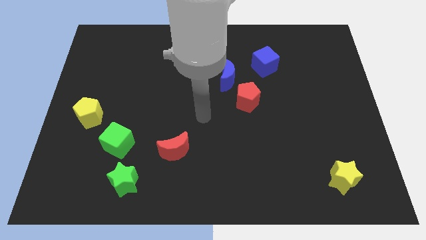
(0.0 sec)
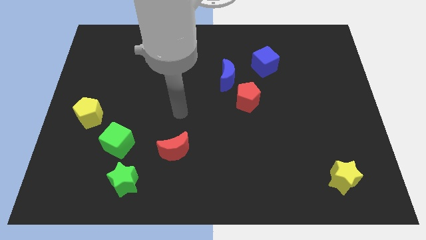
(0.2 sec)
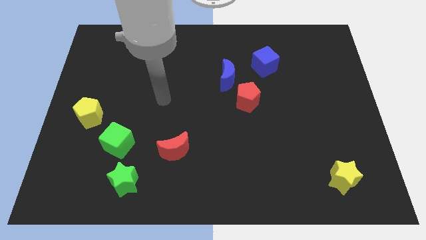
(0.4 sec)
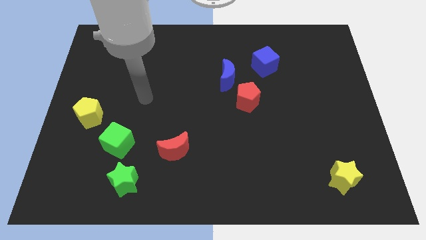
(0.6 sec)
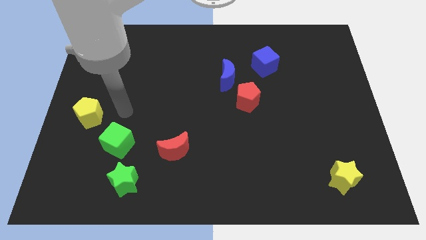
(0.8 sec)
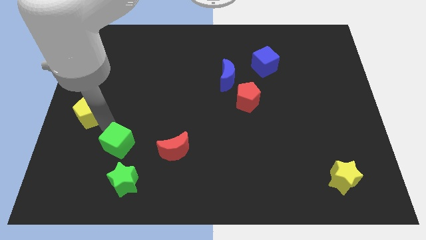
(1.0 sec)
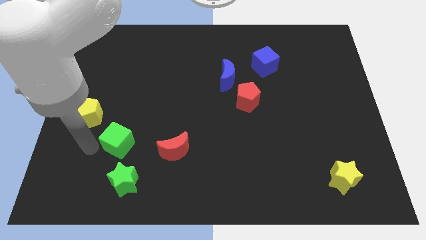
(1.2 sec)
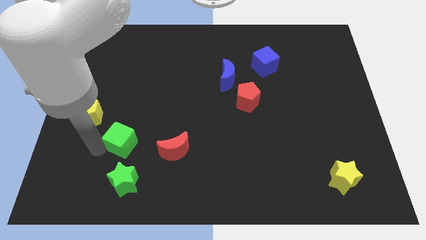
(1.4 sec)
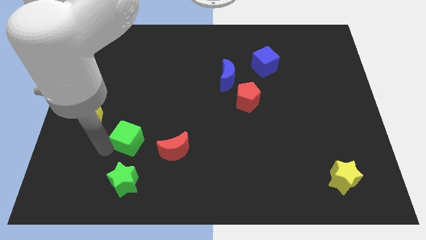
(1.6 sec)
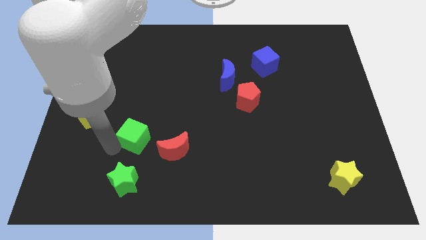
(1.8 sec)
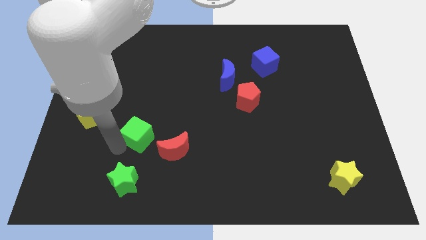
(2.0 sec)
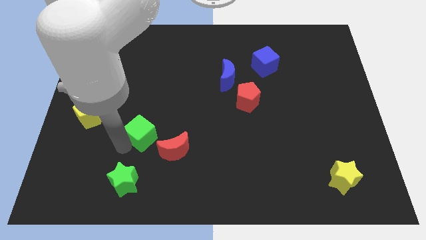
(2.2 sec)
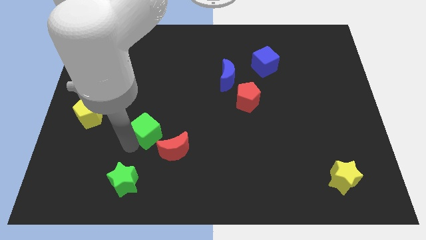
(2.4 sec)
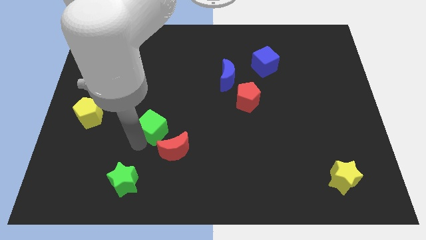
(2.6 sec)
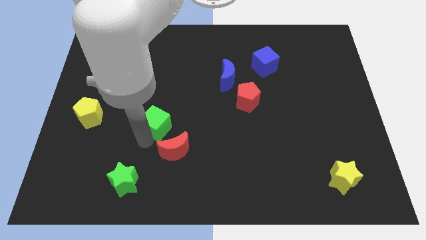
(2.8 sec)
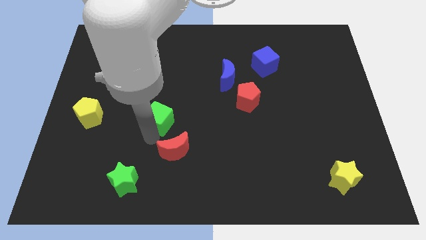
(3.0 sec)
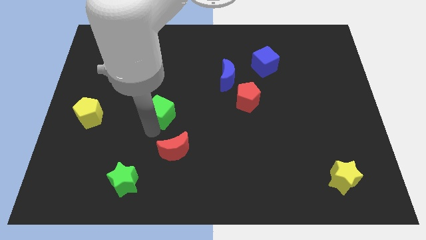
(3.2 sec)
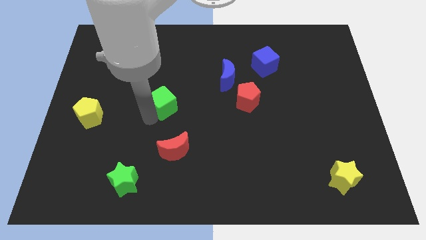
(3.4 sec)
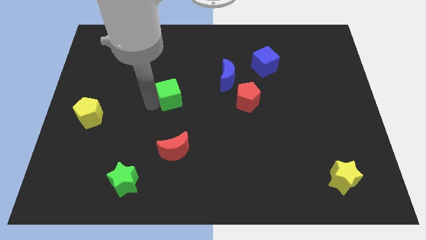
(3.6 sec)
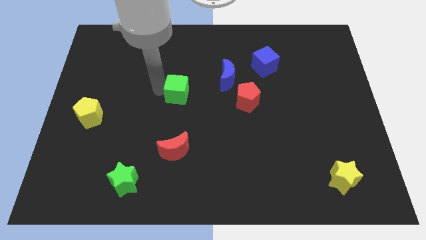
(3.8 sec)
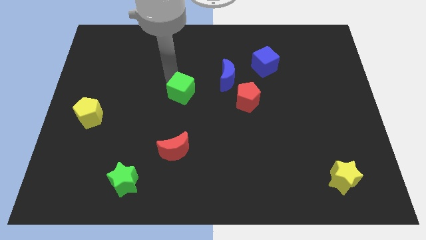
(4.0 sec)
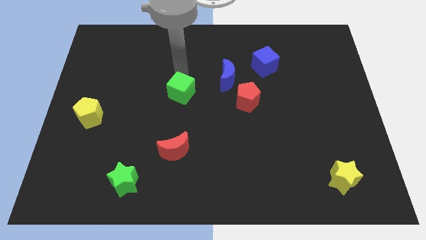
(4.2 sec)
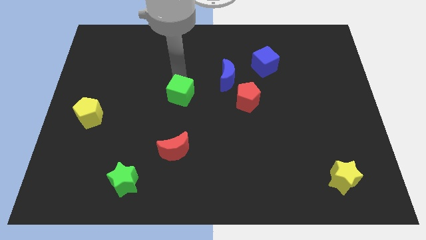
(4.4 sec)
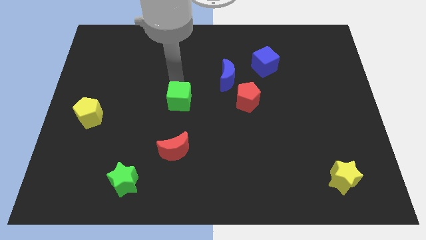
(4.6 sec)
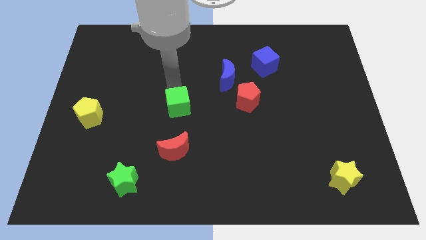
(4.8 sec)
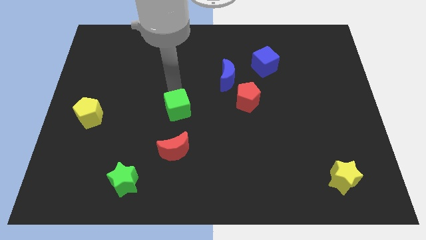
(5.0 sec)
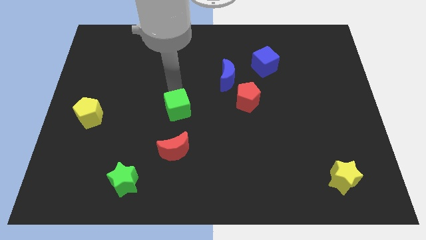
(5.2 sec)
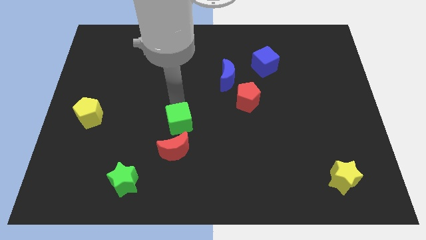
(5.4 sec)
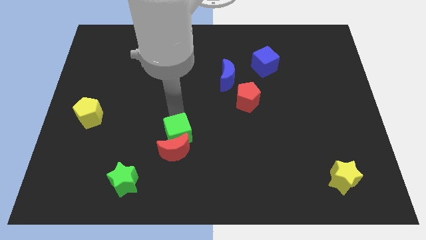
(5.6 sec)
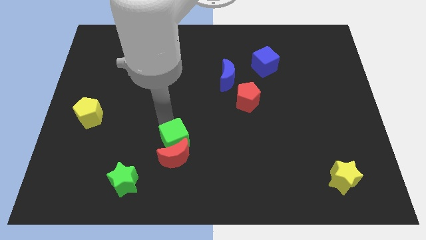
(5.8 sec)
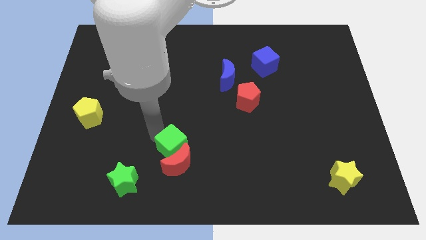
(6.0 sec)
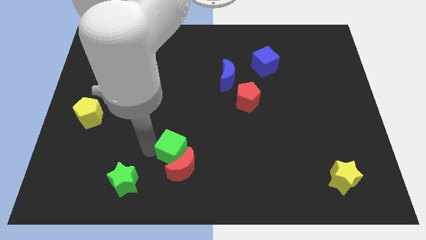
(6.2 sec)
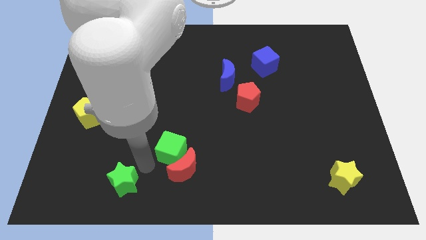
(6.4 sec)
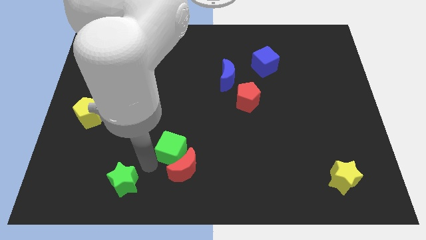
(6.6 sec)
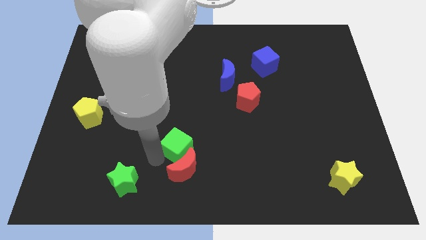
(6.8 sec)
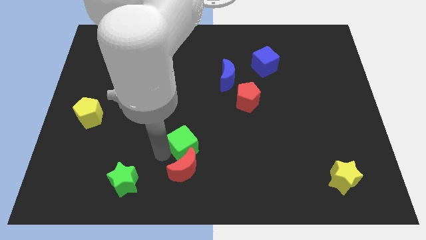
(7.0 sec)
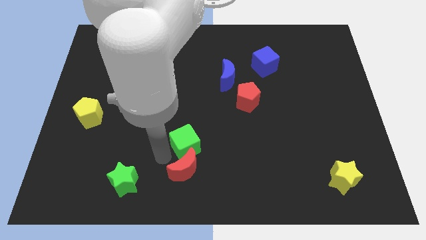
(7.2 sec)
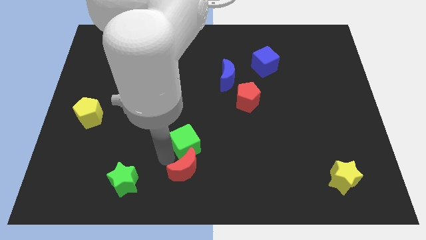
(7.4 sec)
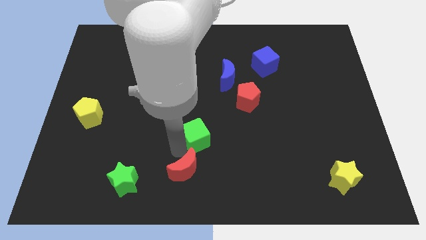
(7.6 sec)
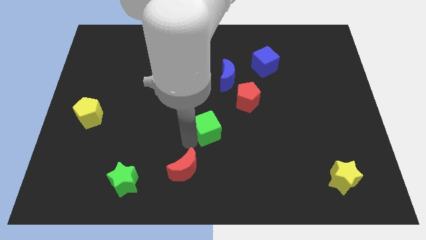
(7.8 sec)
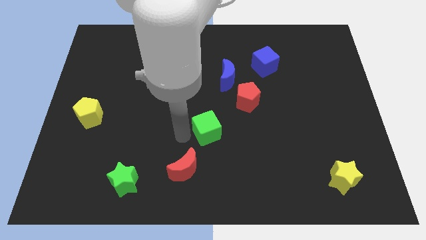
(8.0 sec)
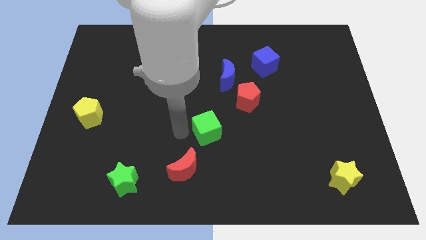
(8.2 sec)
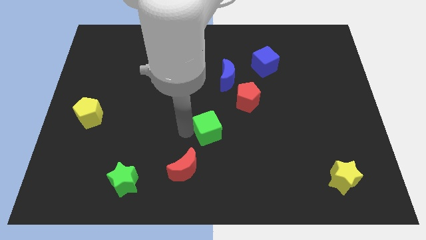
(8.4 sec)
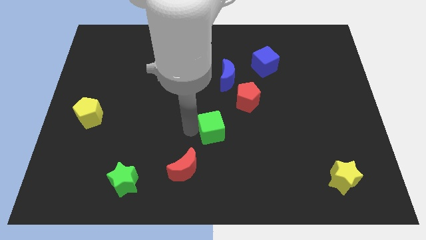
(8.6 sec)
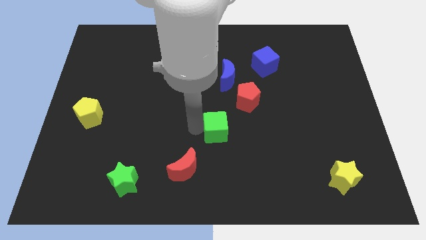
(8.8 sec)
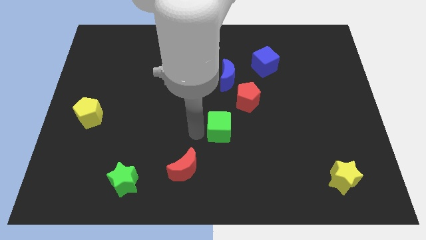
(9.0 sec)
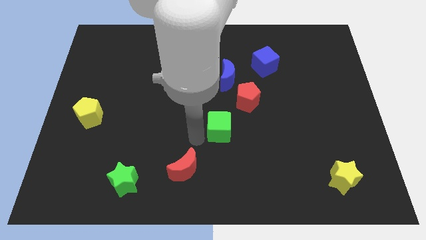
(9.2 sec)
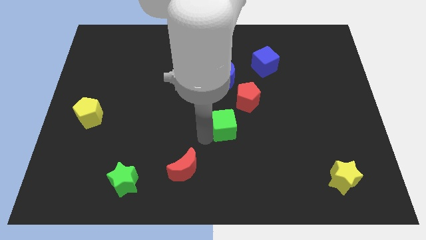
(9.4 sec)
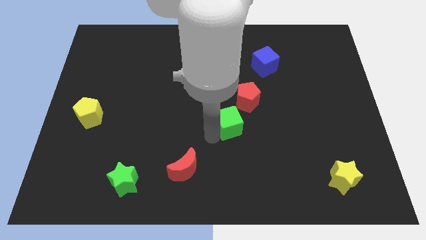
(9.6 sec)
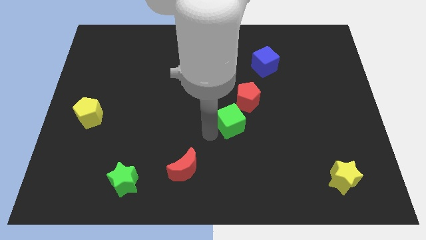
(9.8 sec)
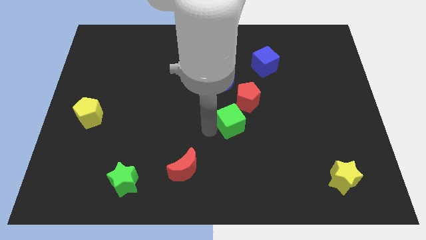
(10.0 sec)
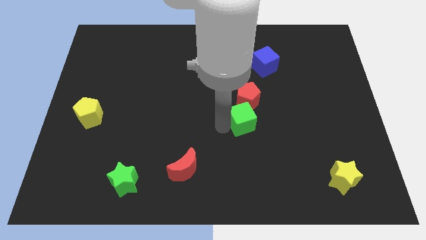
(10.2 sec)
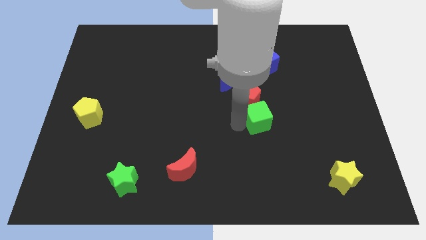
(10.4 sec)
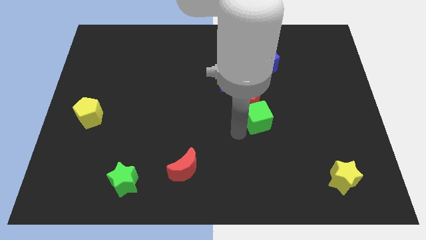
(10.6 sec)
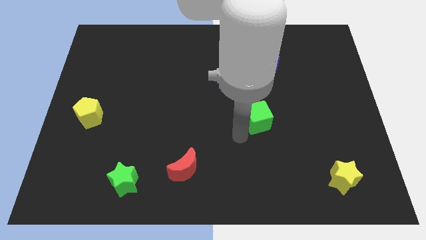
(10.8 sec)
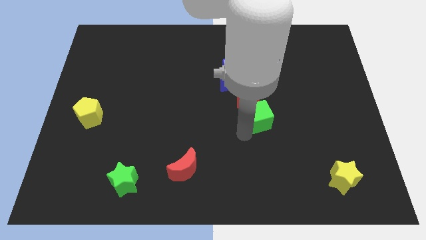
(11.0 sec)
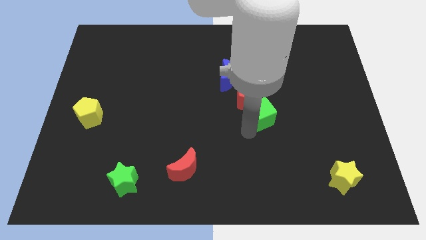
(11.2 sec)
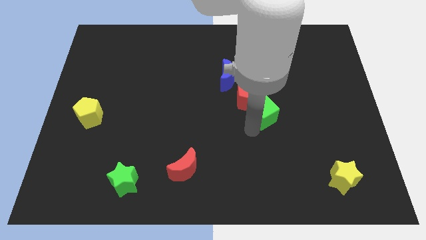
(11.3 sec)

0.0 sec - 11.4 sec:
push the green cube to the right of the red pentagon
